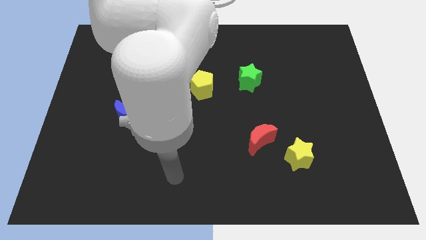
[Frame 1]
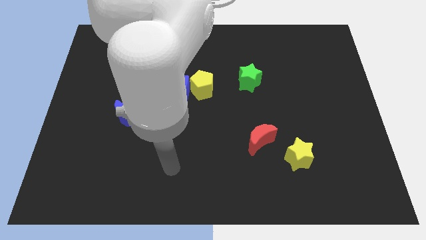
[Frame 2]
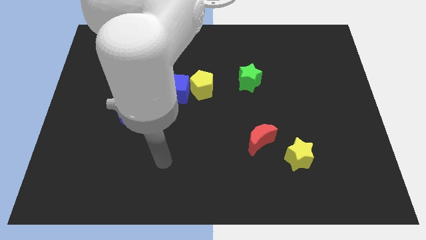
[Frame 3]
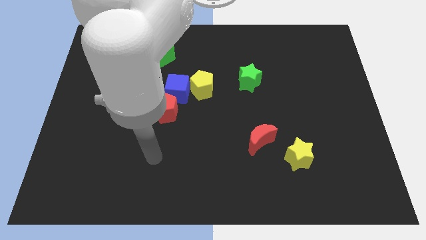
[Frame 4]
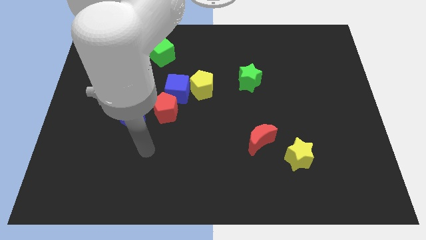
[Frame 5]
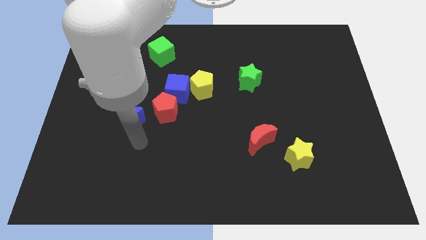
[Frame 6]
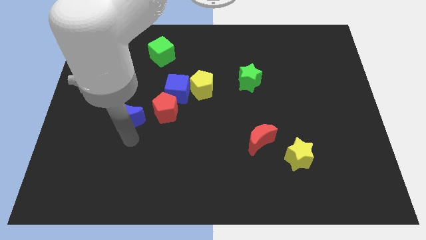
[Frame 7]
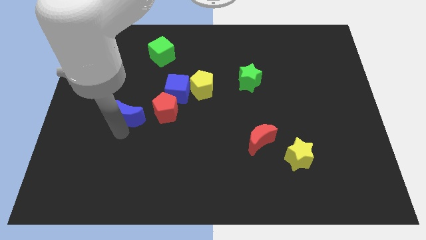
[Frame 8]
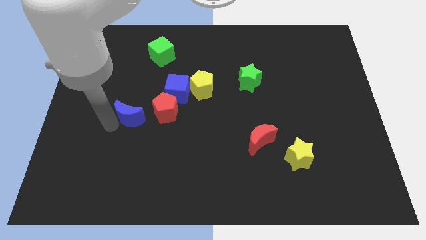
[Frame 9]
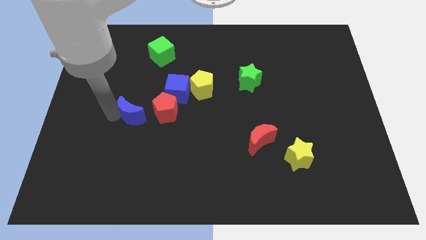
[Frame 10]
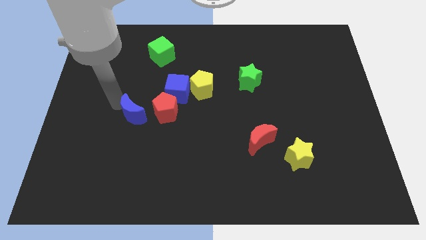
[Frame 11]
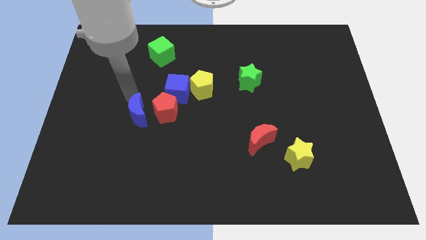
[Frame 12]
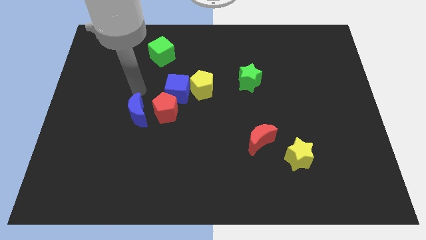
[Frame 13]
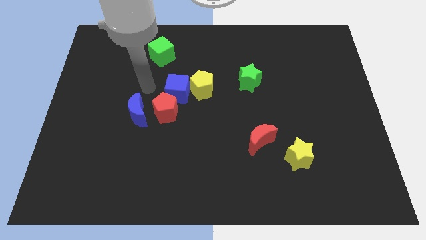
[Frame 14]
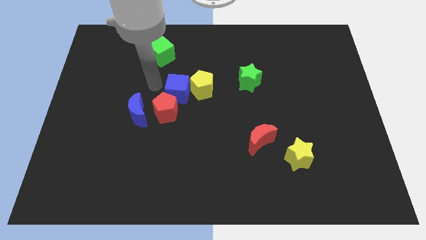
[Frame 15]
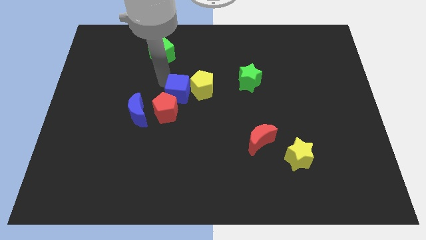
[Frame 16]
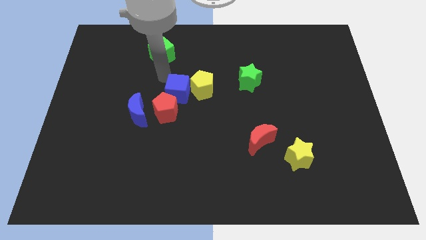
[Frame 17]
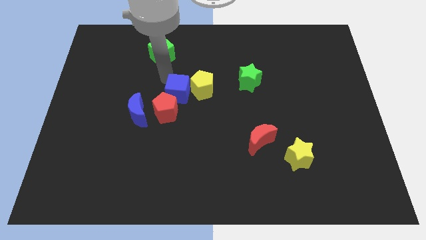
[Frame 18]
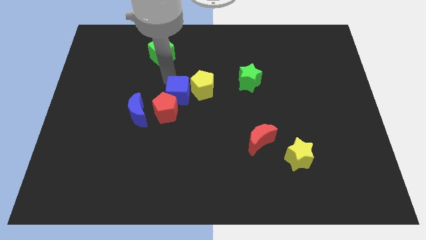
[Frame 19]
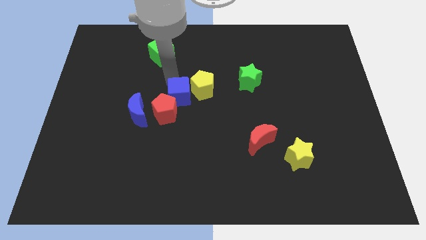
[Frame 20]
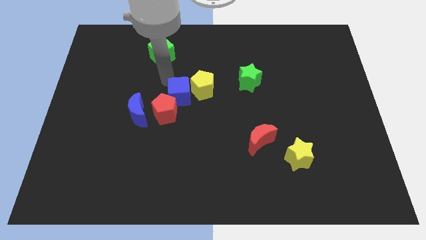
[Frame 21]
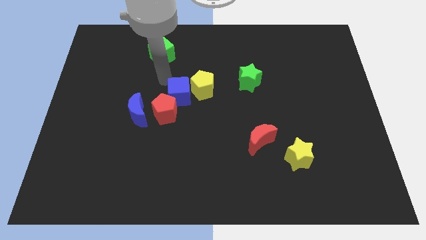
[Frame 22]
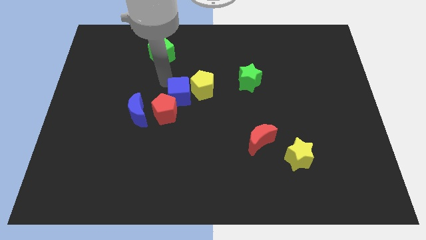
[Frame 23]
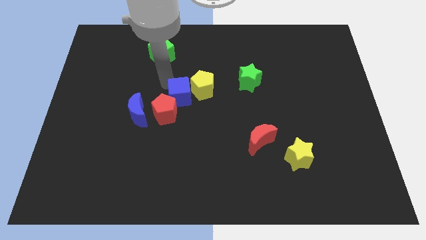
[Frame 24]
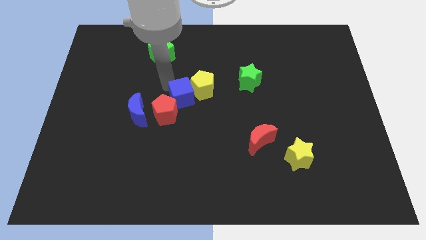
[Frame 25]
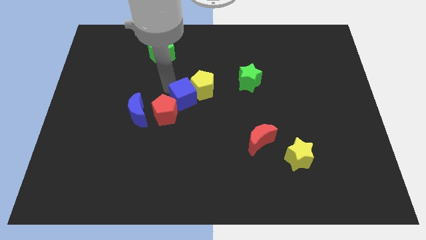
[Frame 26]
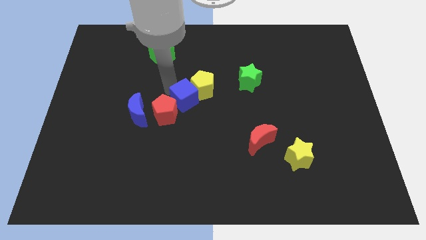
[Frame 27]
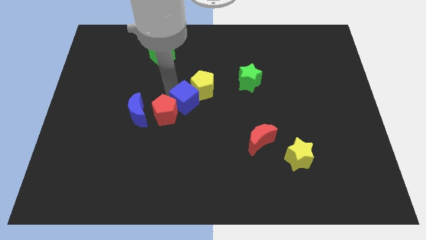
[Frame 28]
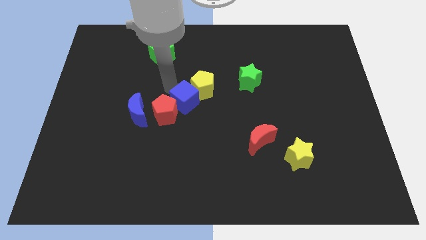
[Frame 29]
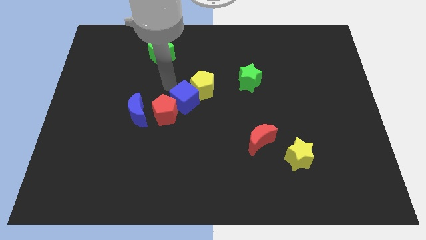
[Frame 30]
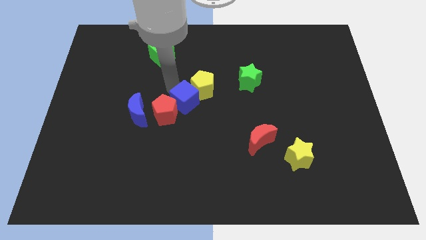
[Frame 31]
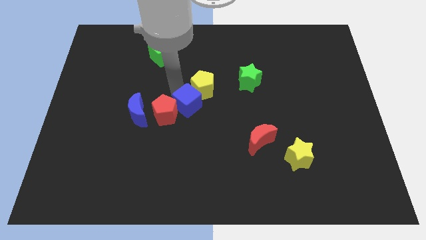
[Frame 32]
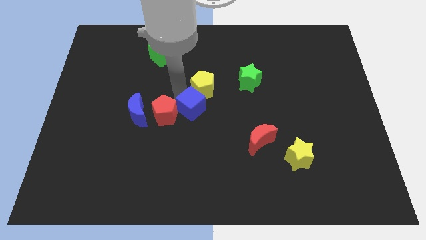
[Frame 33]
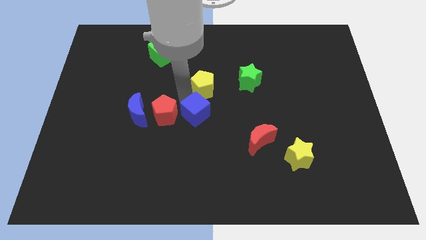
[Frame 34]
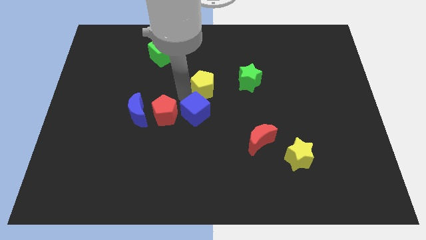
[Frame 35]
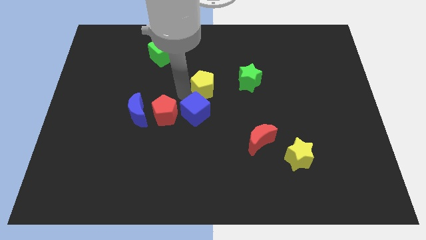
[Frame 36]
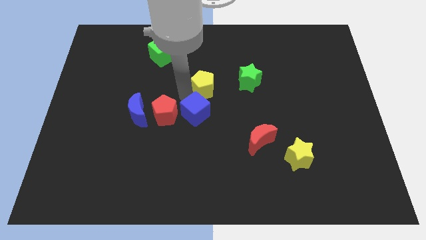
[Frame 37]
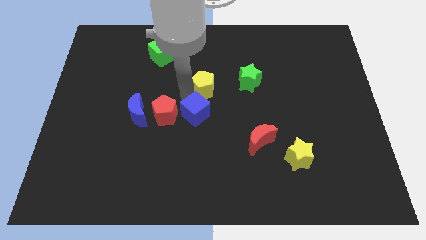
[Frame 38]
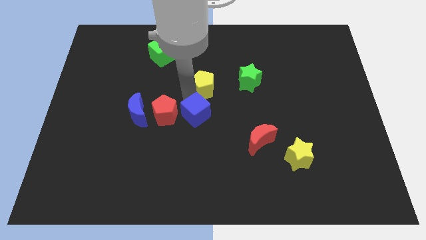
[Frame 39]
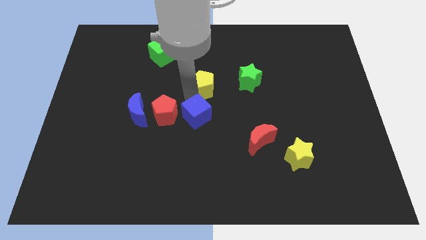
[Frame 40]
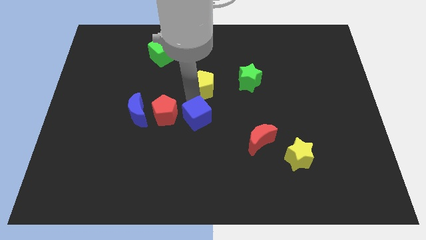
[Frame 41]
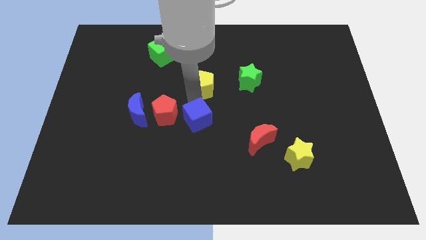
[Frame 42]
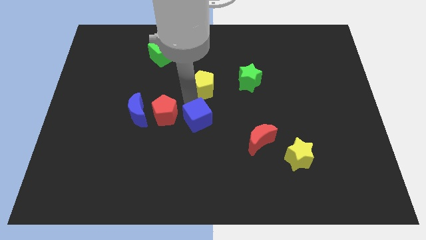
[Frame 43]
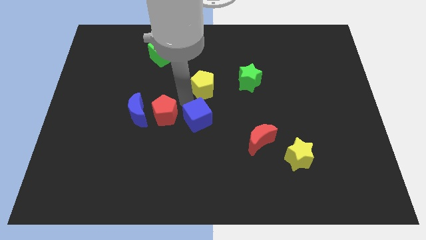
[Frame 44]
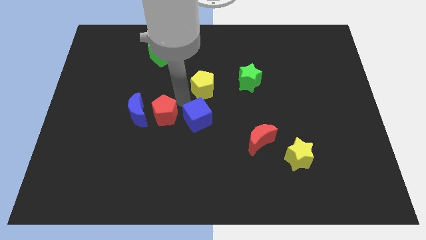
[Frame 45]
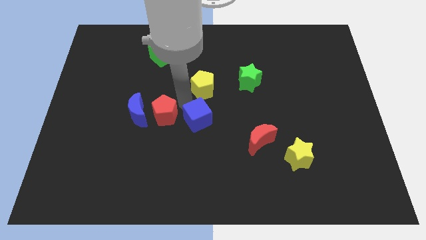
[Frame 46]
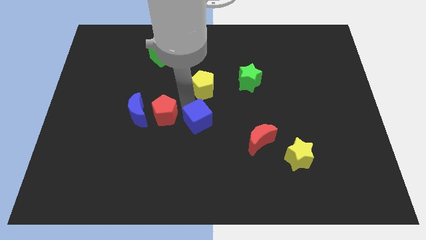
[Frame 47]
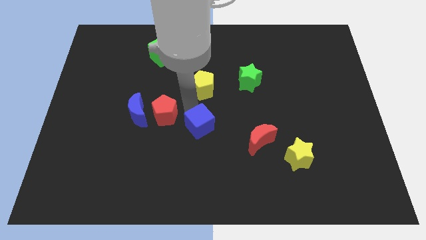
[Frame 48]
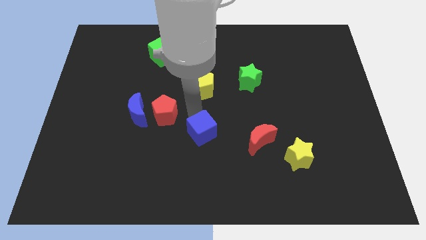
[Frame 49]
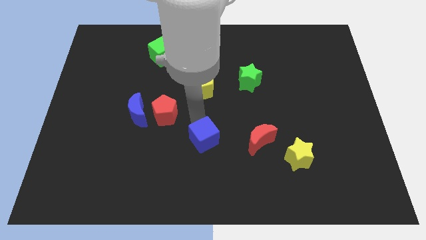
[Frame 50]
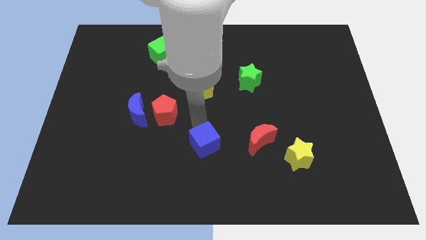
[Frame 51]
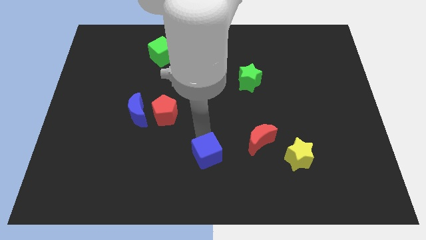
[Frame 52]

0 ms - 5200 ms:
put the blue cube to the bottom side

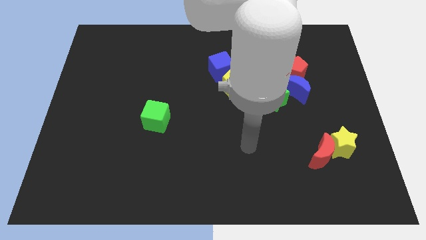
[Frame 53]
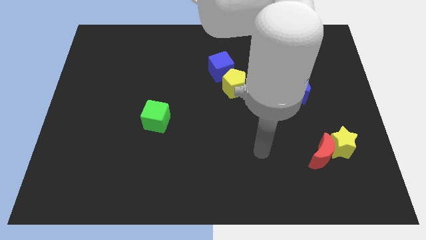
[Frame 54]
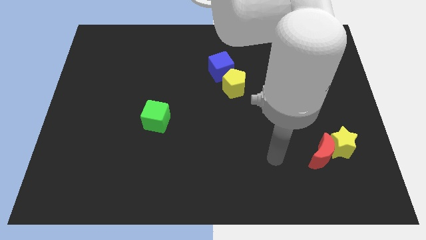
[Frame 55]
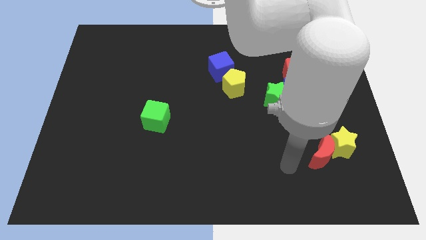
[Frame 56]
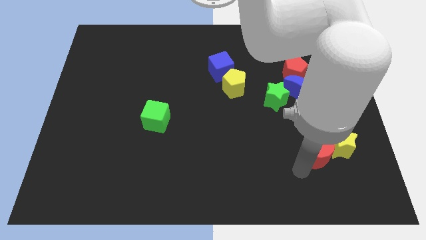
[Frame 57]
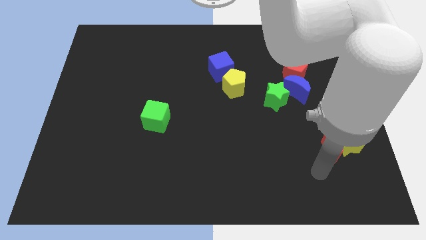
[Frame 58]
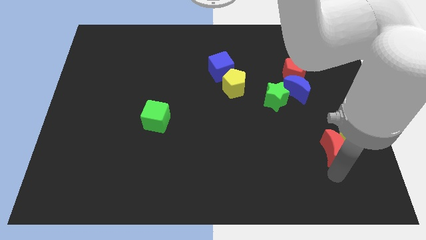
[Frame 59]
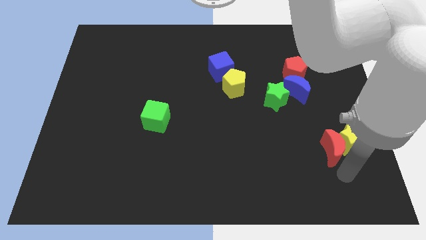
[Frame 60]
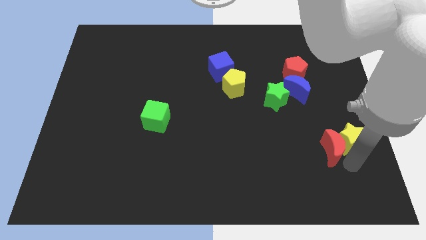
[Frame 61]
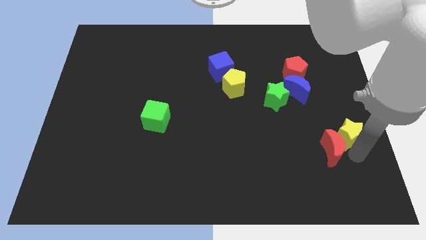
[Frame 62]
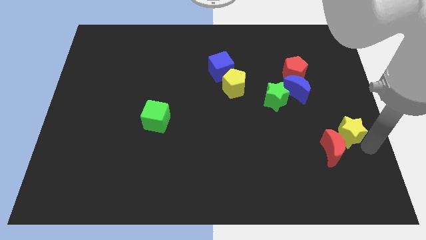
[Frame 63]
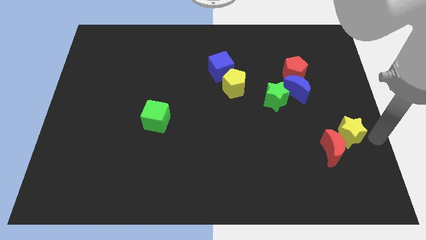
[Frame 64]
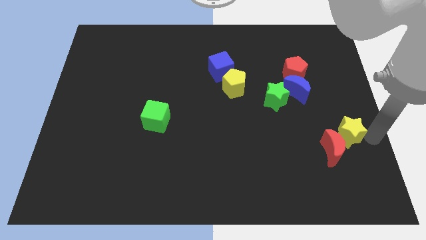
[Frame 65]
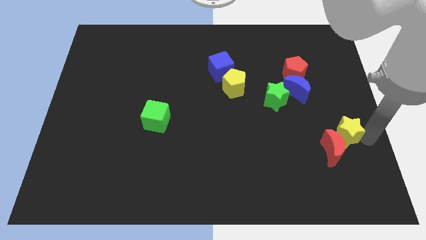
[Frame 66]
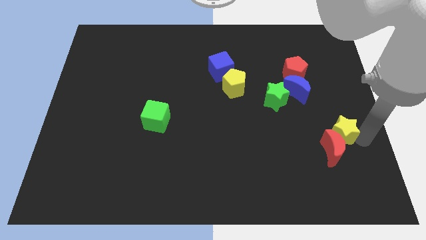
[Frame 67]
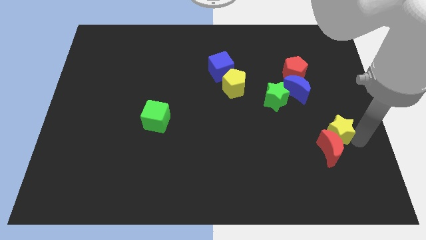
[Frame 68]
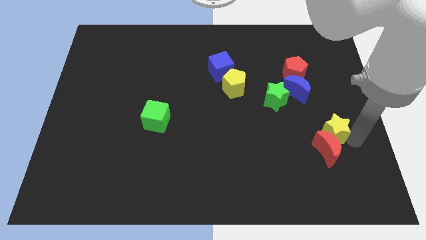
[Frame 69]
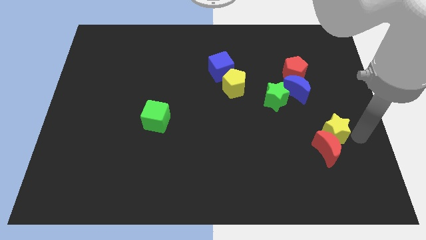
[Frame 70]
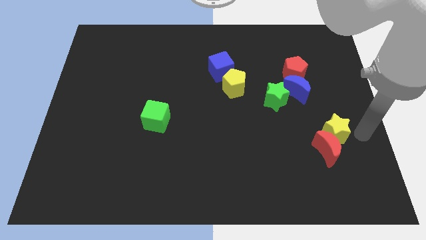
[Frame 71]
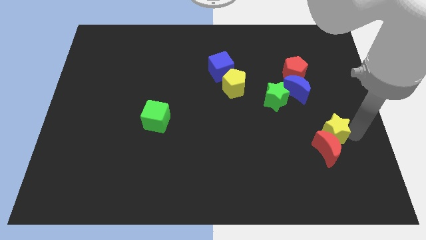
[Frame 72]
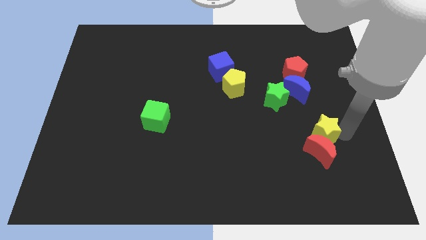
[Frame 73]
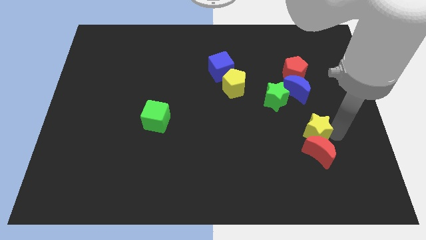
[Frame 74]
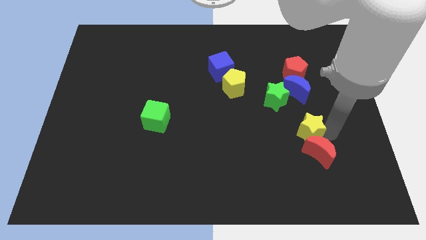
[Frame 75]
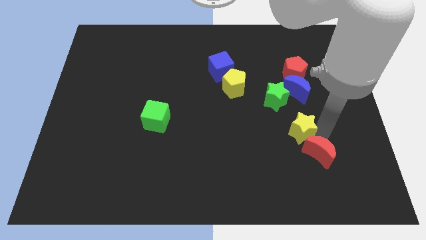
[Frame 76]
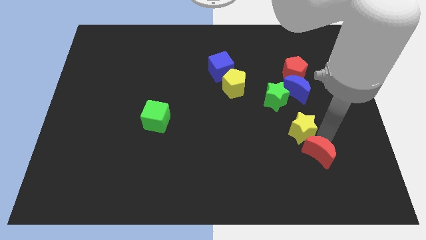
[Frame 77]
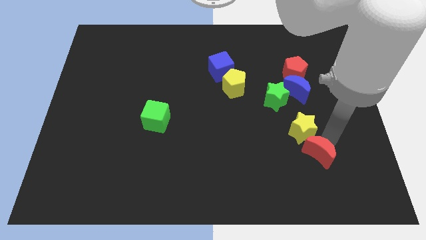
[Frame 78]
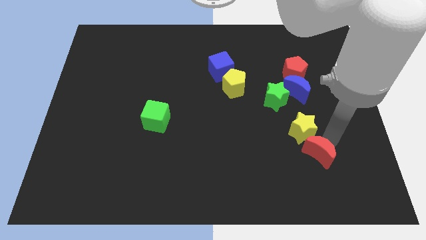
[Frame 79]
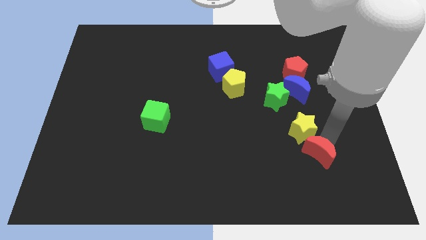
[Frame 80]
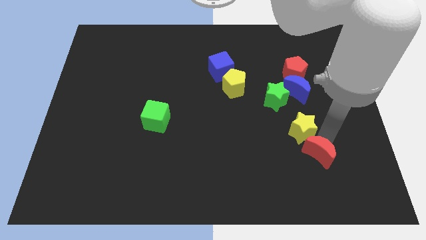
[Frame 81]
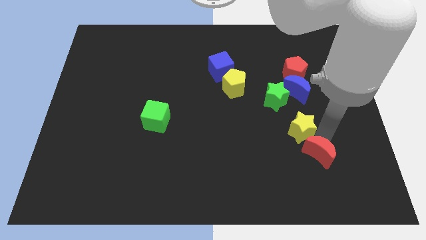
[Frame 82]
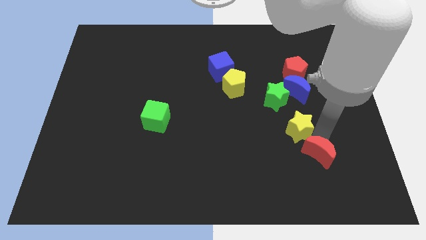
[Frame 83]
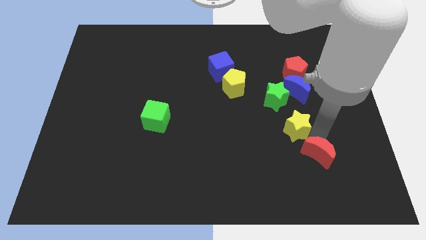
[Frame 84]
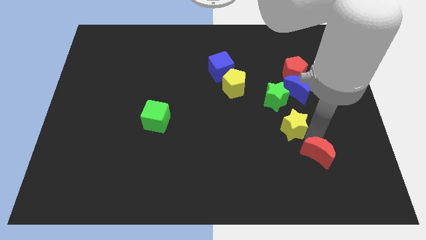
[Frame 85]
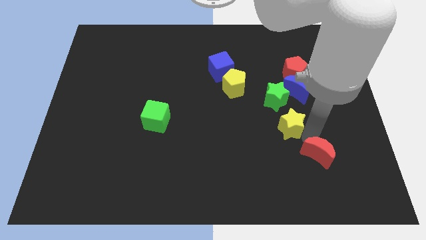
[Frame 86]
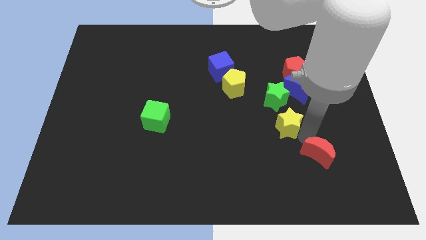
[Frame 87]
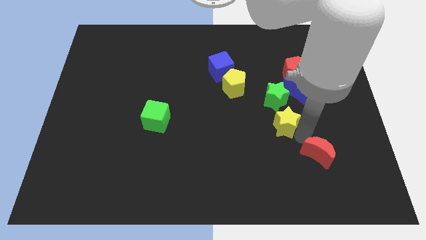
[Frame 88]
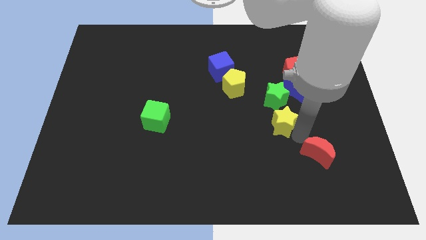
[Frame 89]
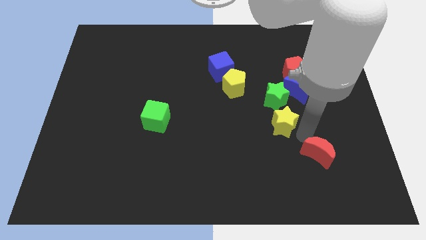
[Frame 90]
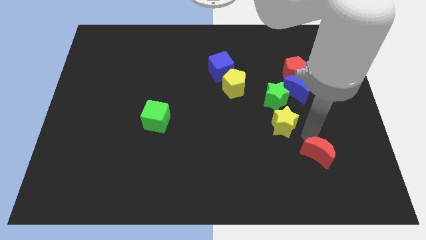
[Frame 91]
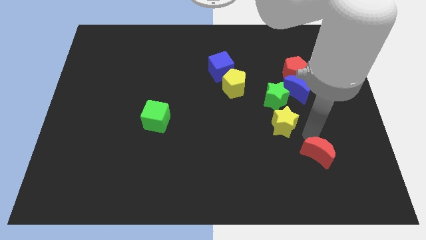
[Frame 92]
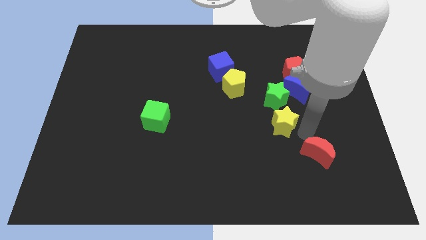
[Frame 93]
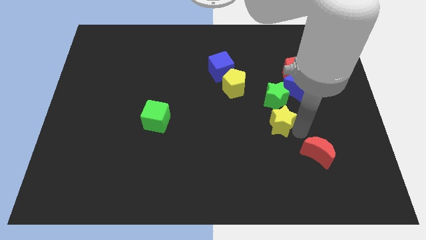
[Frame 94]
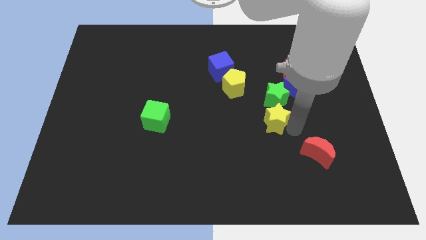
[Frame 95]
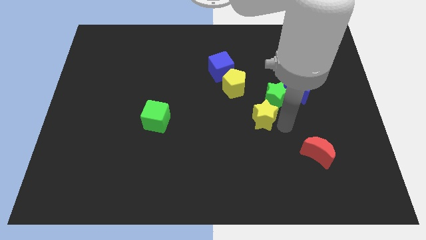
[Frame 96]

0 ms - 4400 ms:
move the yellow star to the middle of the board
